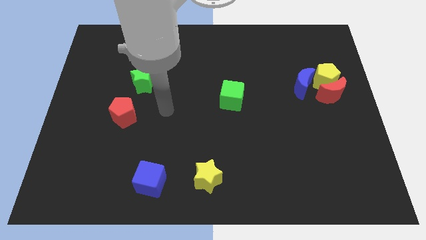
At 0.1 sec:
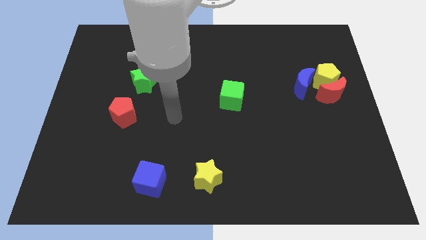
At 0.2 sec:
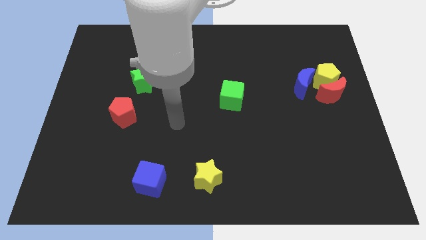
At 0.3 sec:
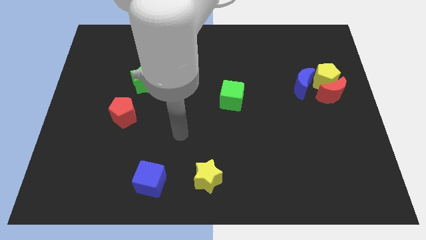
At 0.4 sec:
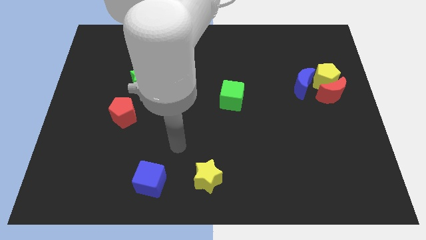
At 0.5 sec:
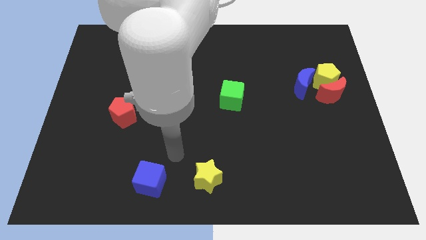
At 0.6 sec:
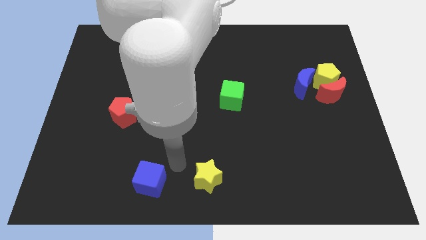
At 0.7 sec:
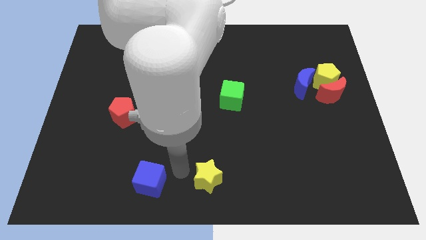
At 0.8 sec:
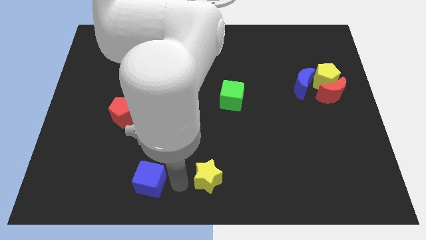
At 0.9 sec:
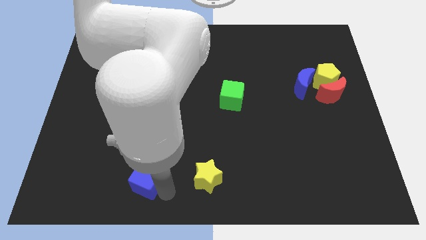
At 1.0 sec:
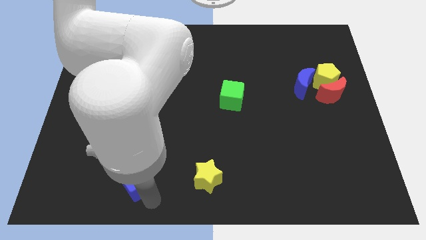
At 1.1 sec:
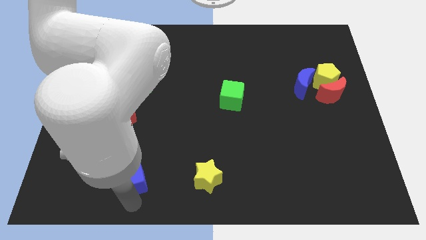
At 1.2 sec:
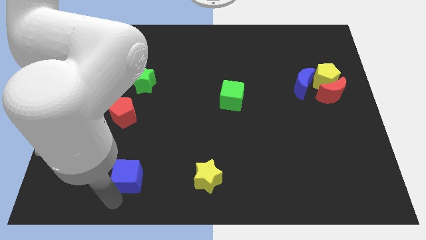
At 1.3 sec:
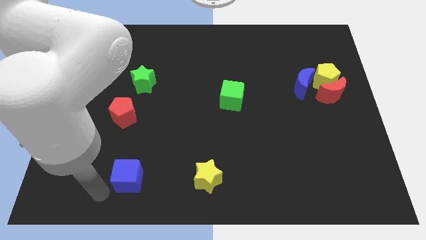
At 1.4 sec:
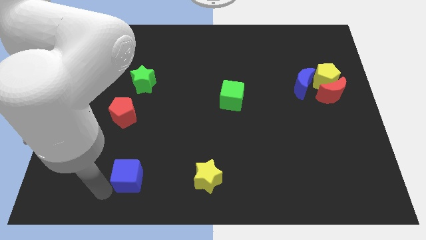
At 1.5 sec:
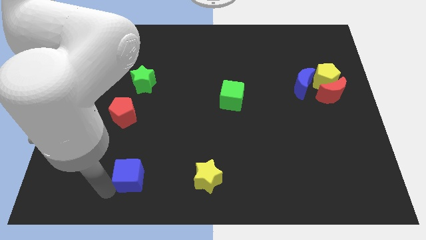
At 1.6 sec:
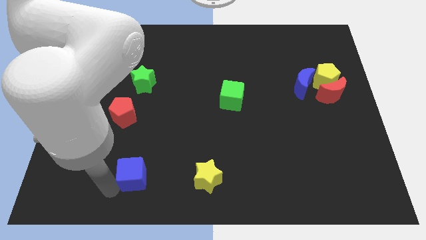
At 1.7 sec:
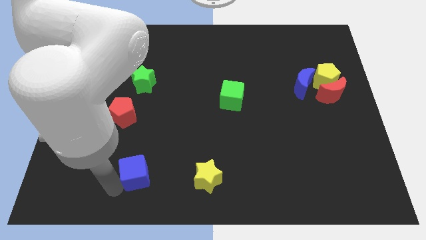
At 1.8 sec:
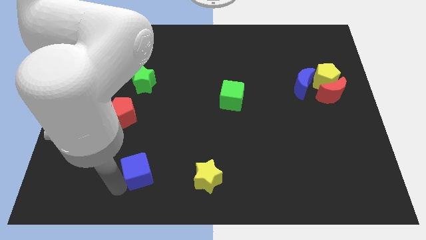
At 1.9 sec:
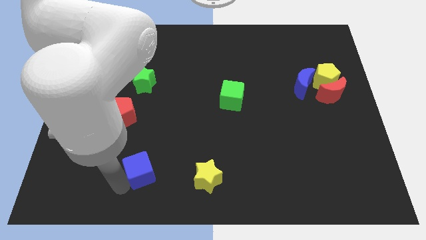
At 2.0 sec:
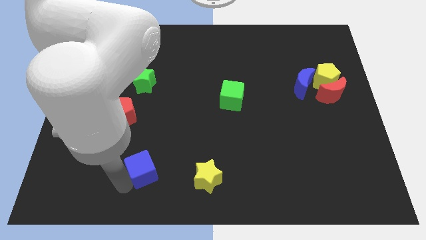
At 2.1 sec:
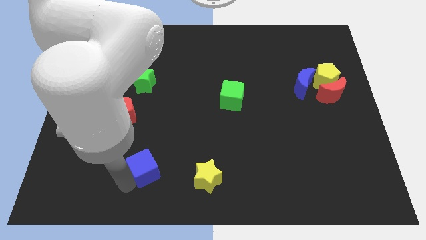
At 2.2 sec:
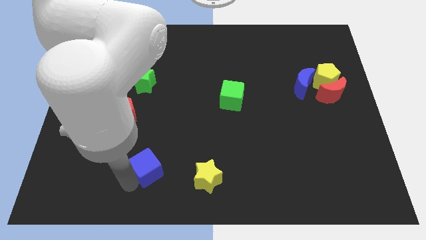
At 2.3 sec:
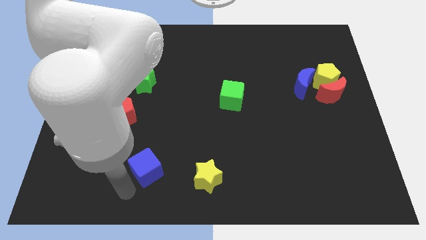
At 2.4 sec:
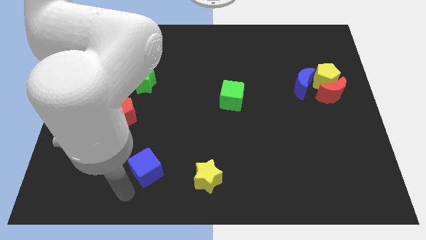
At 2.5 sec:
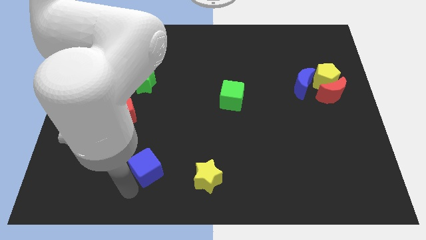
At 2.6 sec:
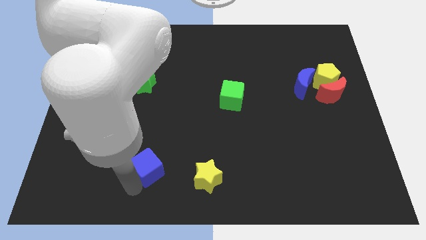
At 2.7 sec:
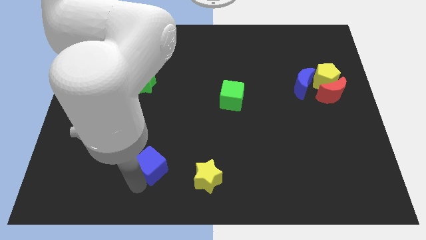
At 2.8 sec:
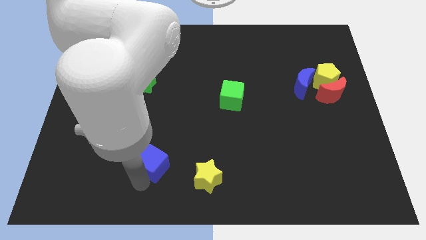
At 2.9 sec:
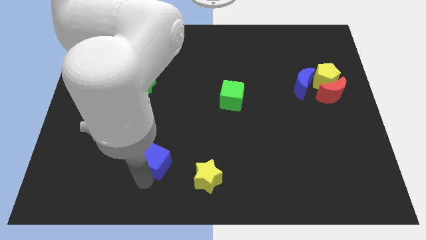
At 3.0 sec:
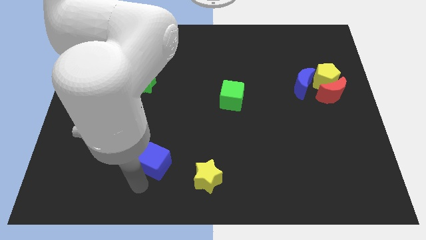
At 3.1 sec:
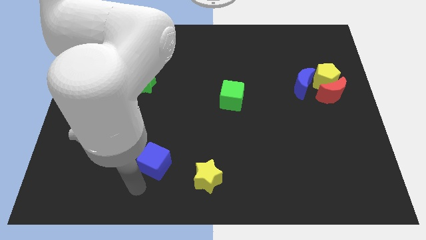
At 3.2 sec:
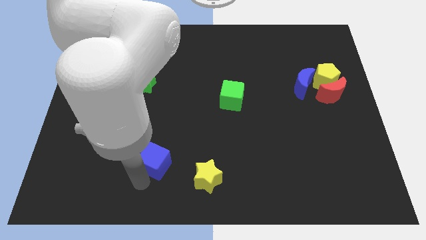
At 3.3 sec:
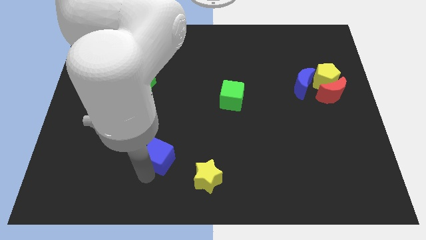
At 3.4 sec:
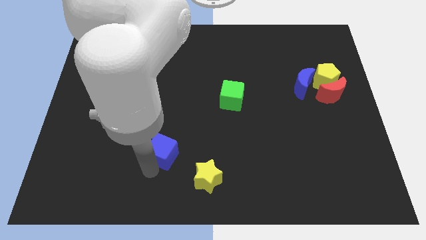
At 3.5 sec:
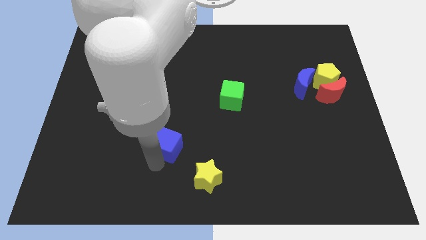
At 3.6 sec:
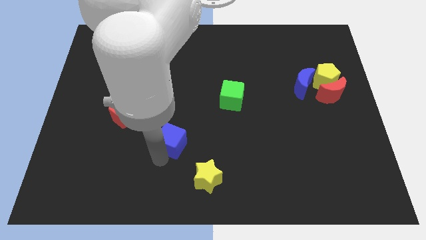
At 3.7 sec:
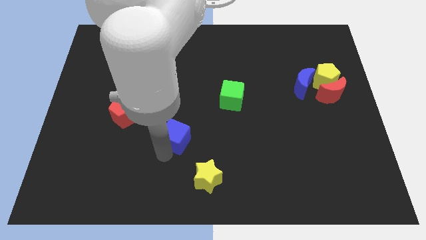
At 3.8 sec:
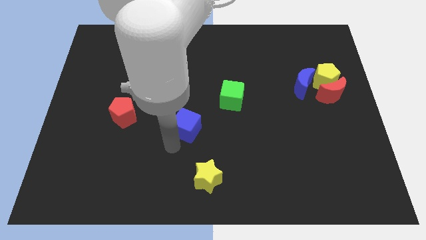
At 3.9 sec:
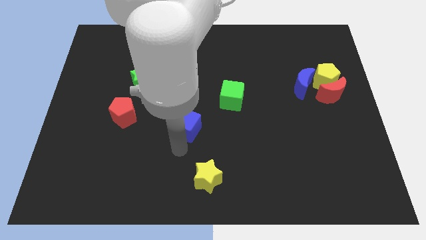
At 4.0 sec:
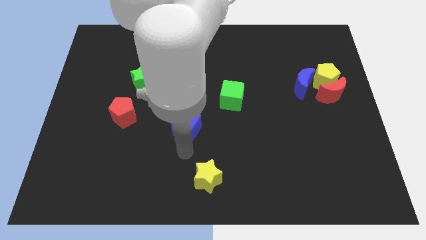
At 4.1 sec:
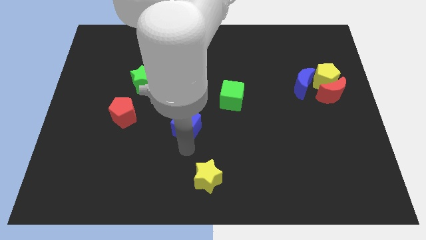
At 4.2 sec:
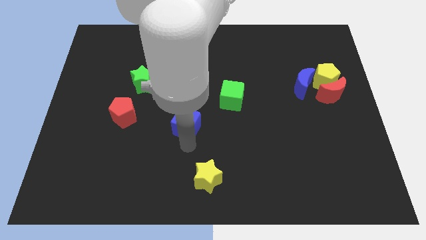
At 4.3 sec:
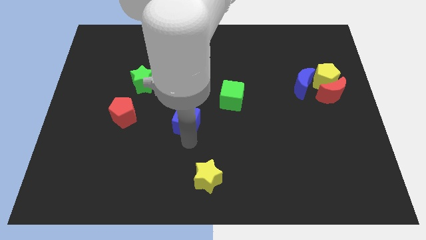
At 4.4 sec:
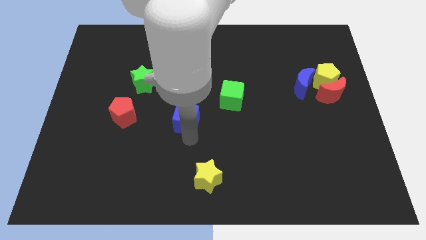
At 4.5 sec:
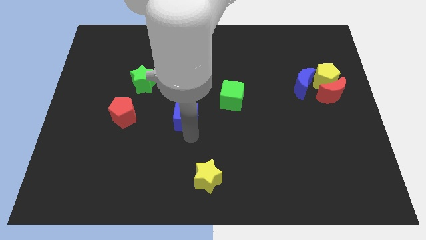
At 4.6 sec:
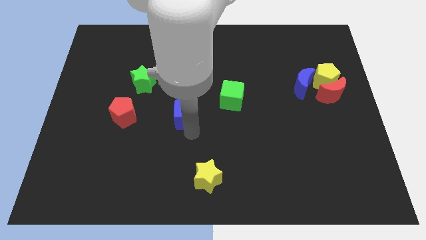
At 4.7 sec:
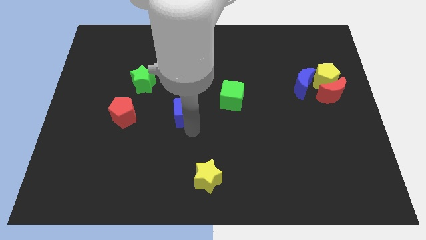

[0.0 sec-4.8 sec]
move the blue cube just left of the green cube

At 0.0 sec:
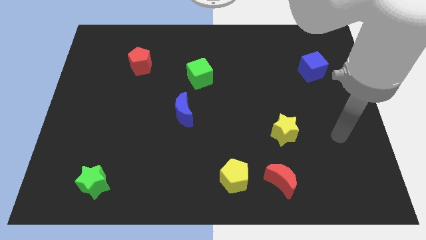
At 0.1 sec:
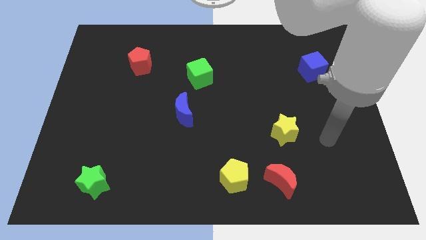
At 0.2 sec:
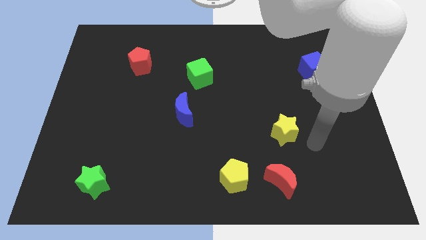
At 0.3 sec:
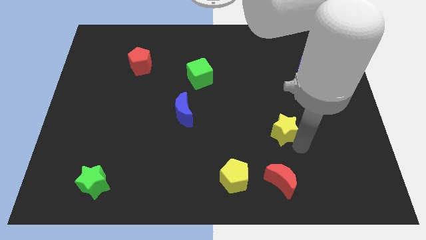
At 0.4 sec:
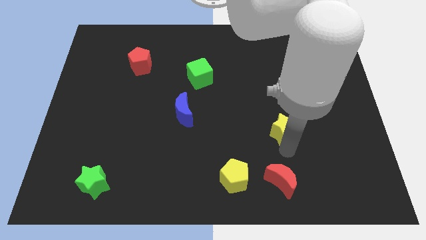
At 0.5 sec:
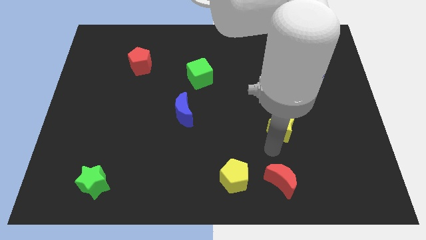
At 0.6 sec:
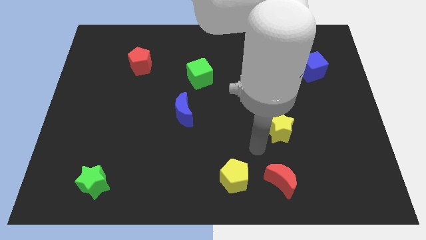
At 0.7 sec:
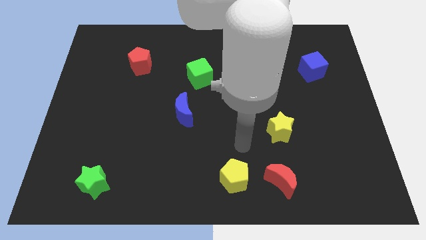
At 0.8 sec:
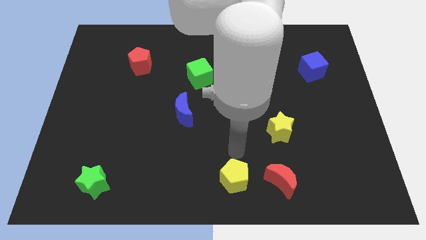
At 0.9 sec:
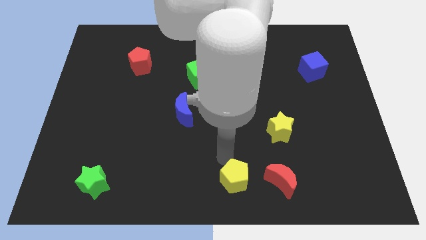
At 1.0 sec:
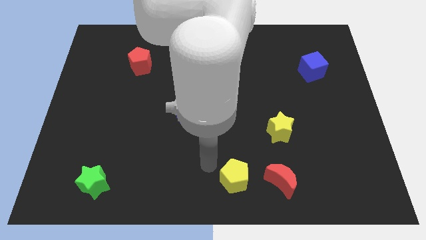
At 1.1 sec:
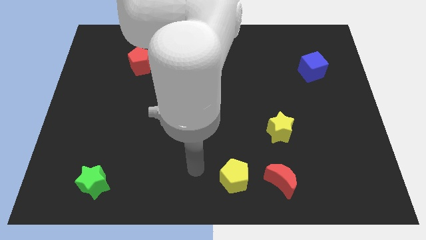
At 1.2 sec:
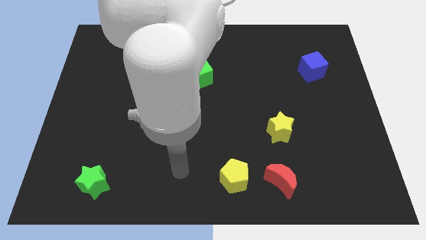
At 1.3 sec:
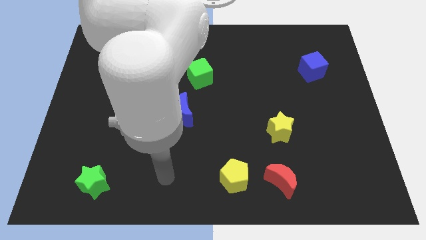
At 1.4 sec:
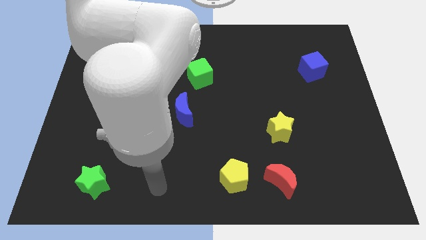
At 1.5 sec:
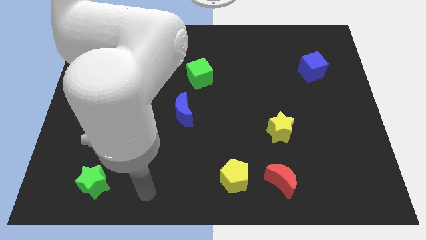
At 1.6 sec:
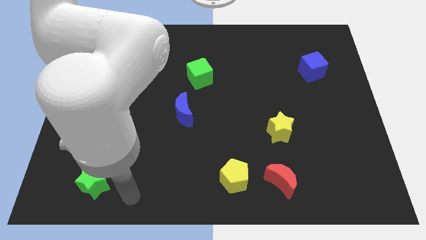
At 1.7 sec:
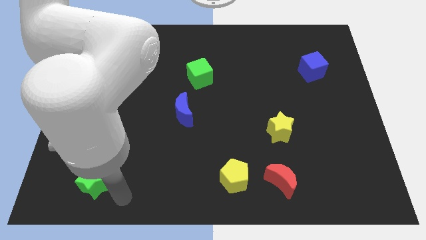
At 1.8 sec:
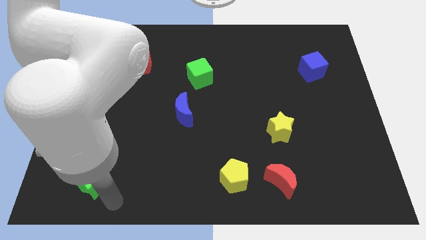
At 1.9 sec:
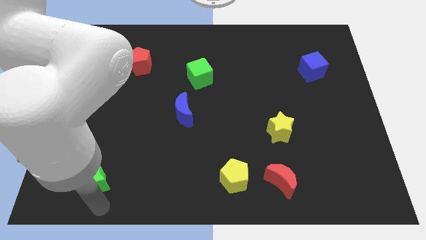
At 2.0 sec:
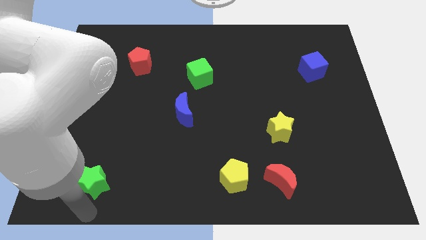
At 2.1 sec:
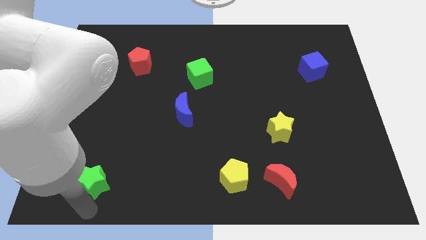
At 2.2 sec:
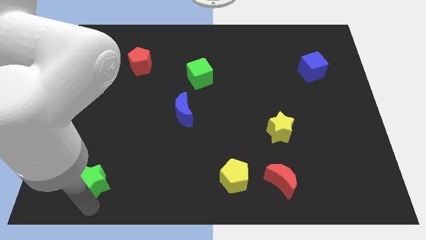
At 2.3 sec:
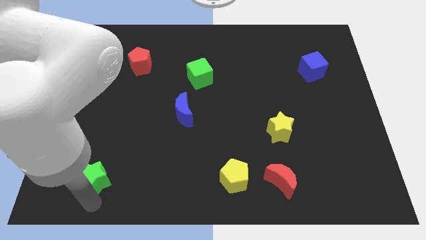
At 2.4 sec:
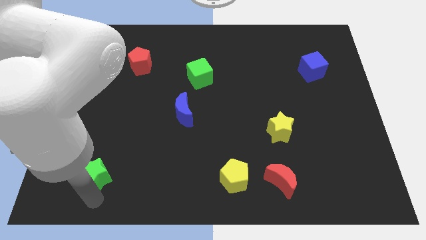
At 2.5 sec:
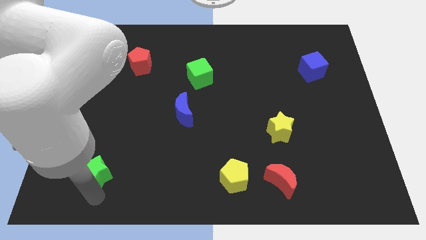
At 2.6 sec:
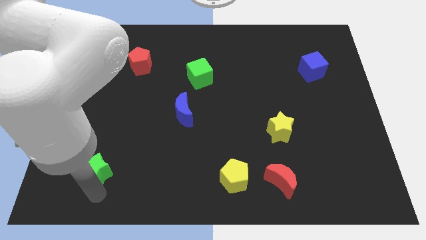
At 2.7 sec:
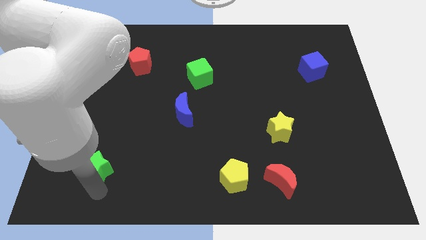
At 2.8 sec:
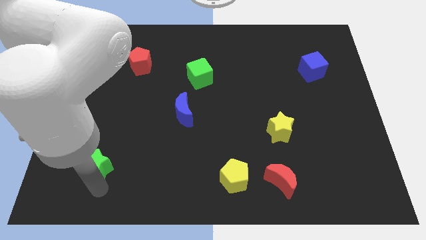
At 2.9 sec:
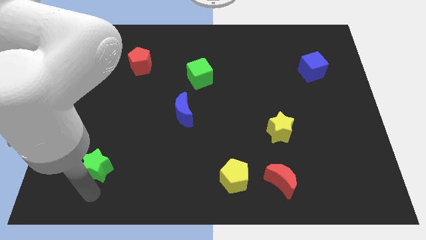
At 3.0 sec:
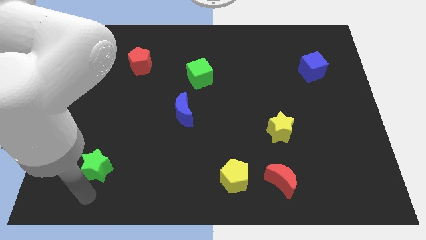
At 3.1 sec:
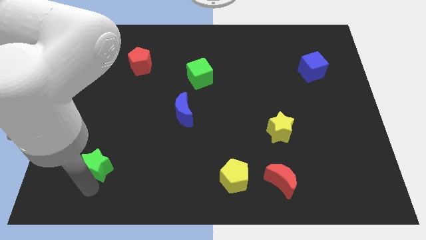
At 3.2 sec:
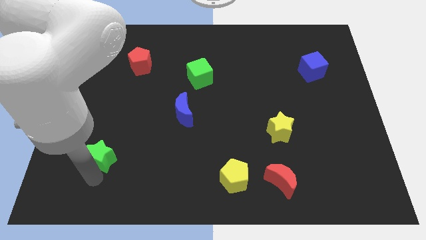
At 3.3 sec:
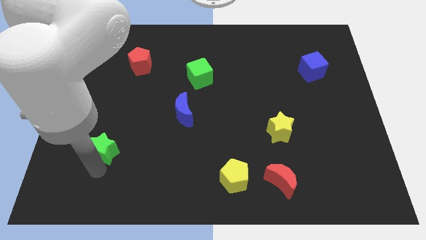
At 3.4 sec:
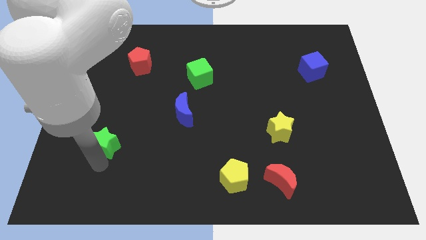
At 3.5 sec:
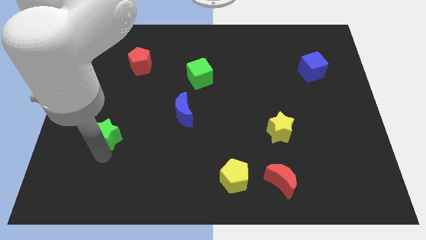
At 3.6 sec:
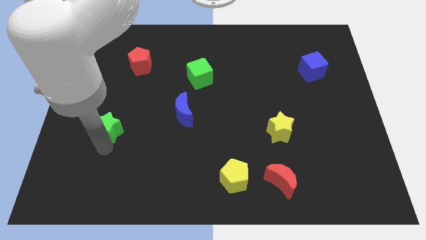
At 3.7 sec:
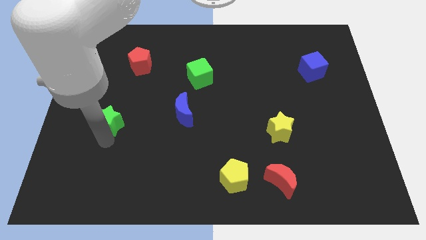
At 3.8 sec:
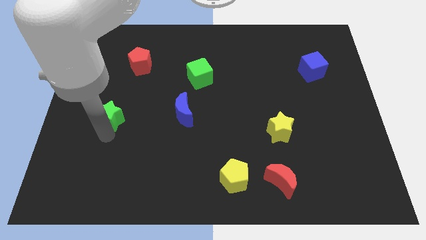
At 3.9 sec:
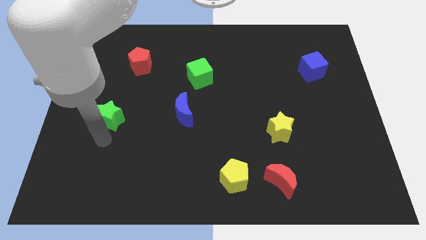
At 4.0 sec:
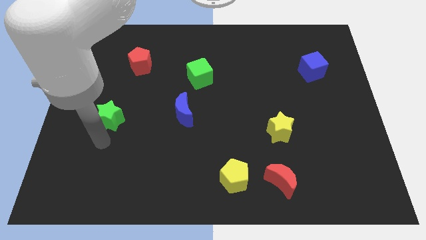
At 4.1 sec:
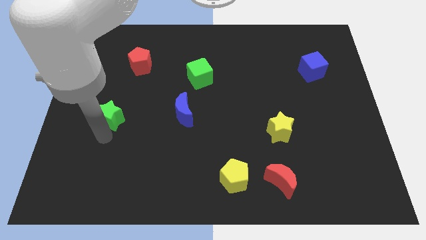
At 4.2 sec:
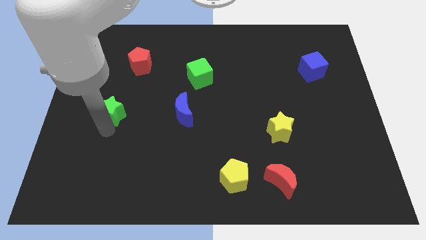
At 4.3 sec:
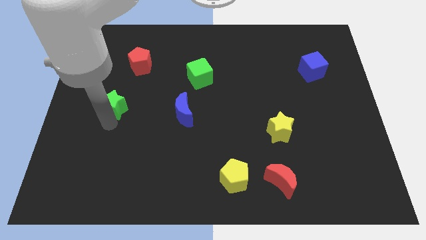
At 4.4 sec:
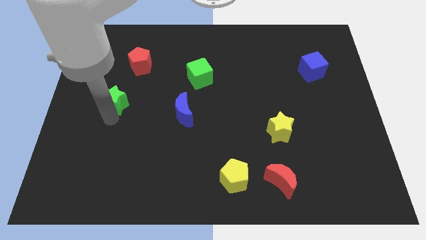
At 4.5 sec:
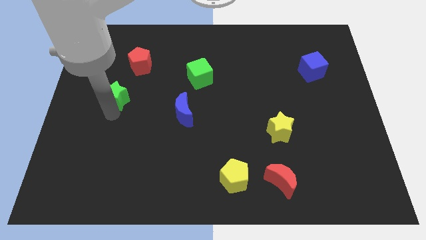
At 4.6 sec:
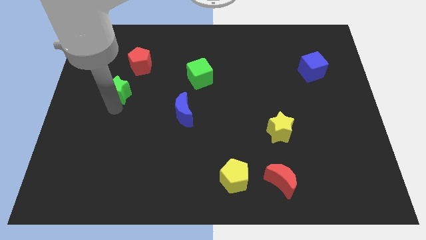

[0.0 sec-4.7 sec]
put the green star to the bottom left side of the red pentagon
